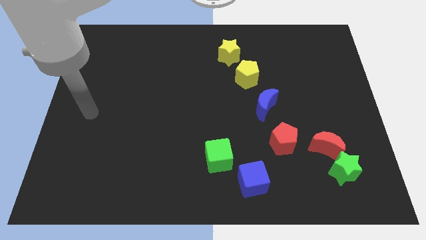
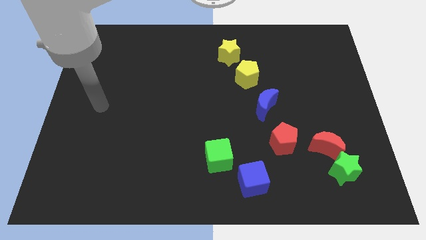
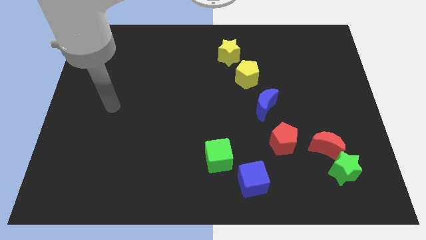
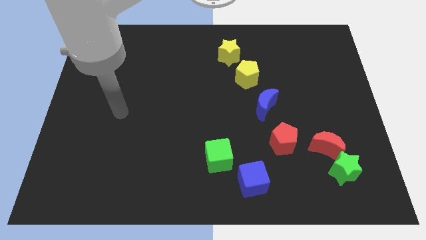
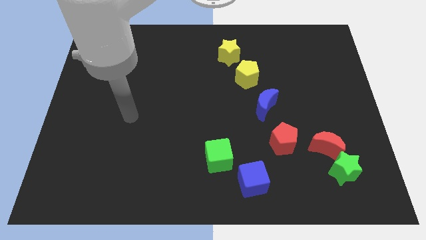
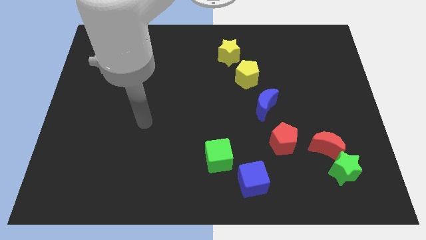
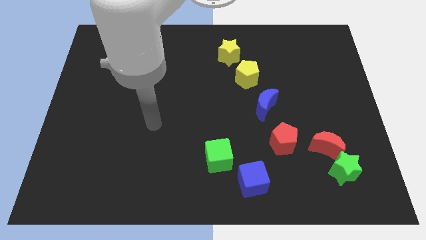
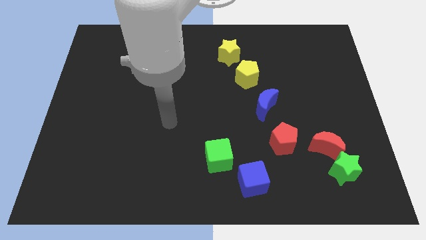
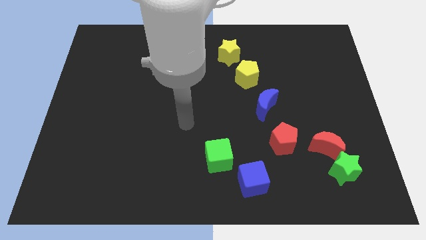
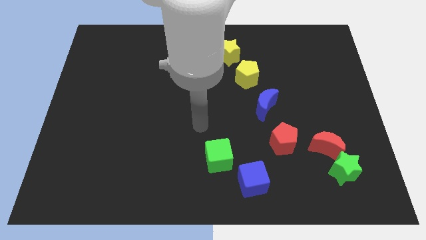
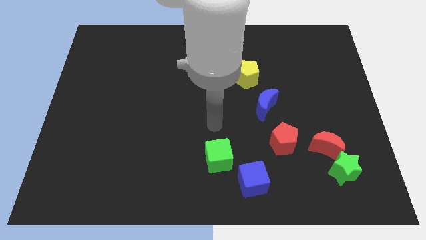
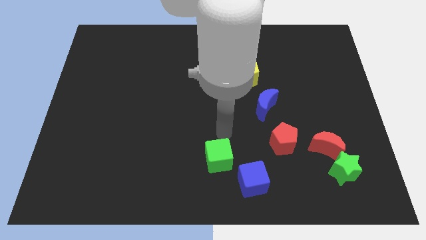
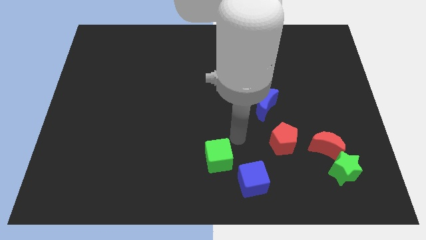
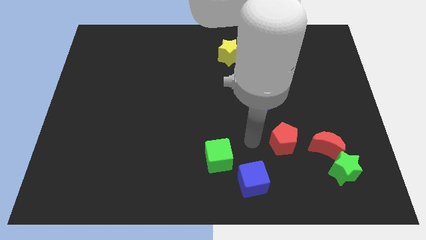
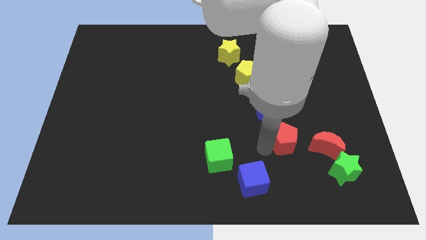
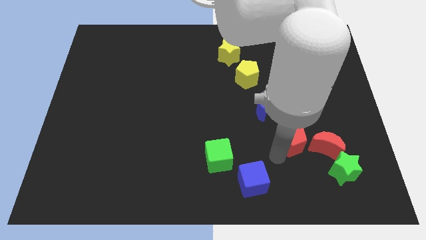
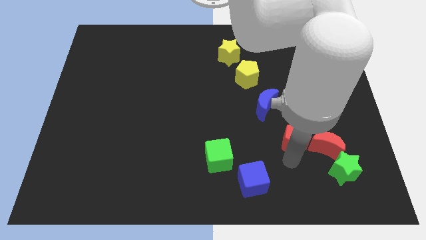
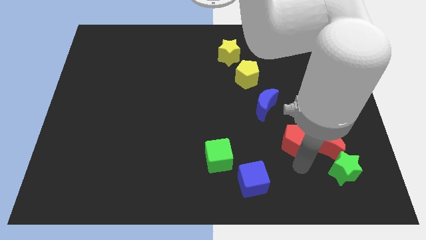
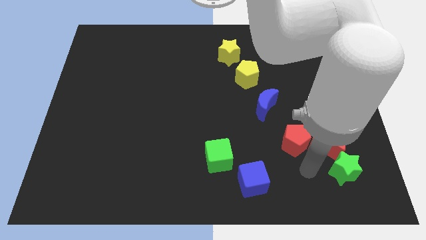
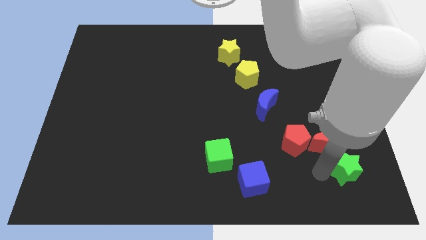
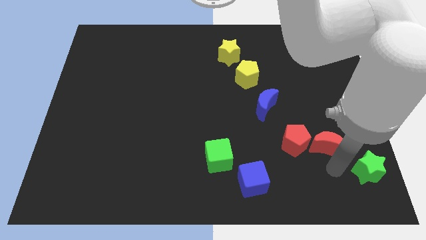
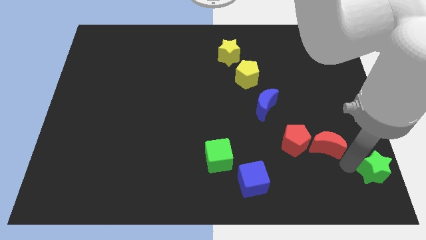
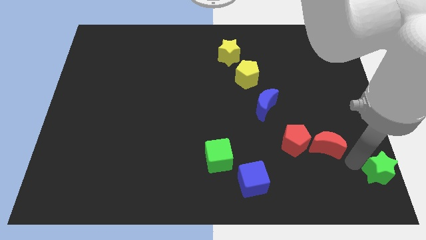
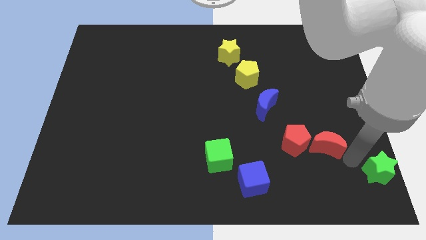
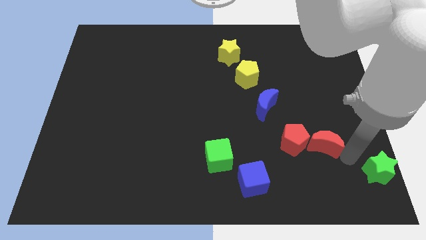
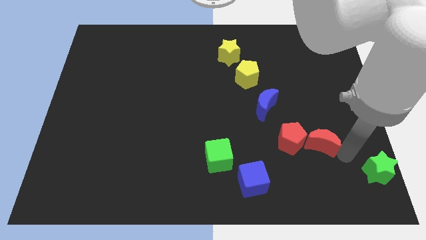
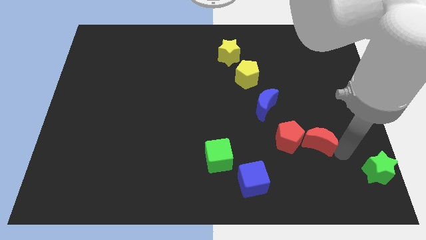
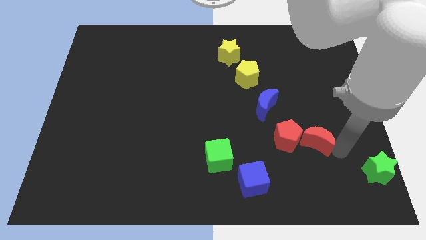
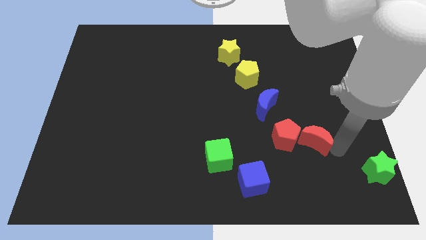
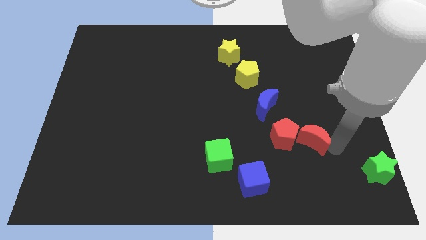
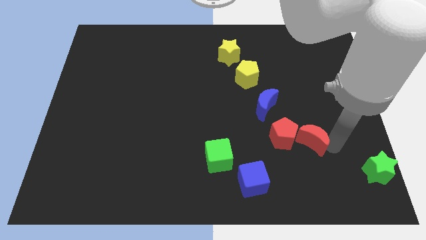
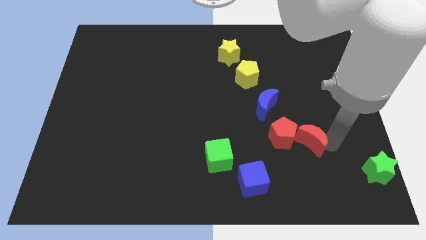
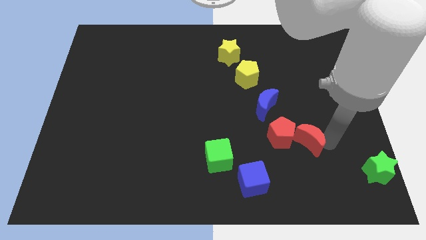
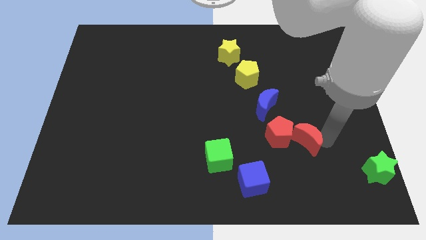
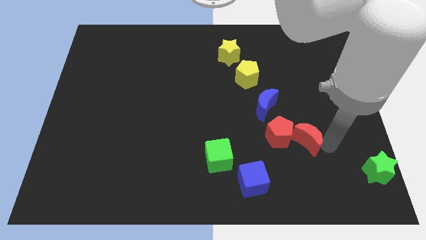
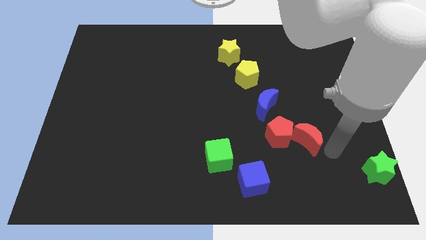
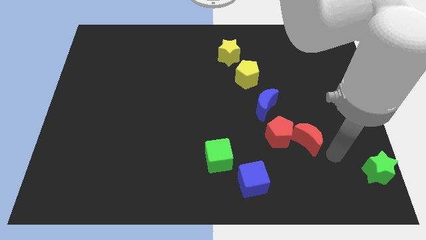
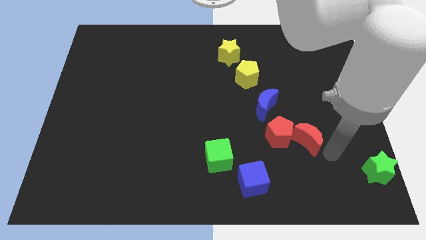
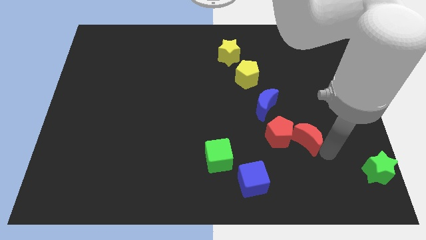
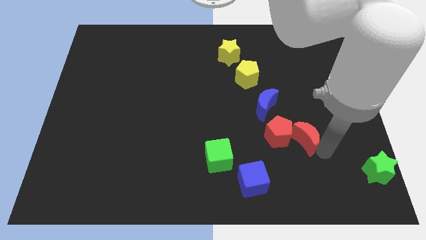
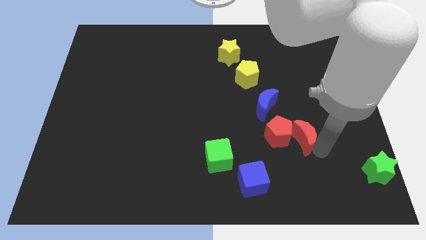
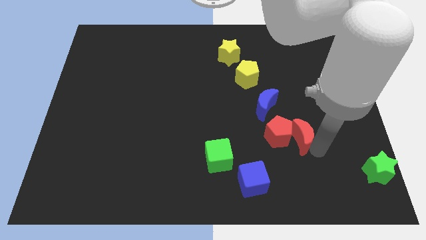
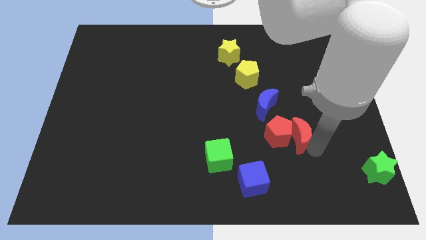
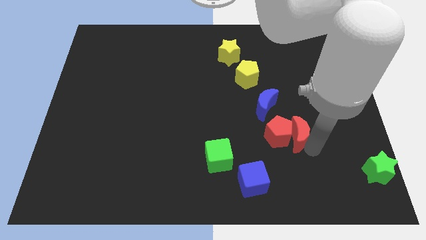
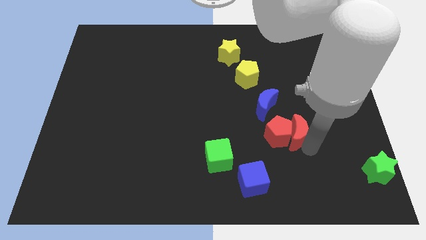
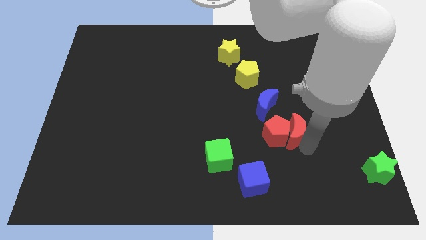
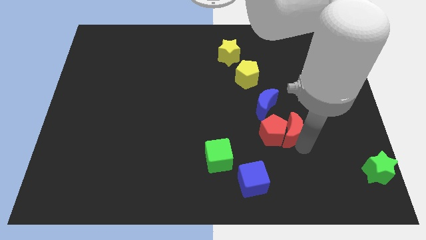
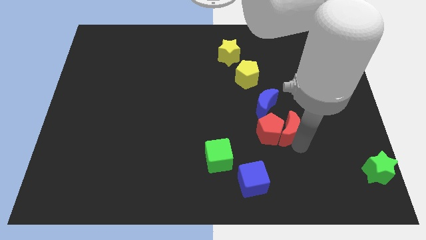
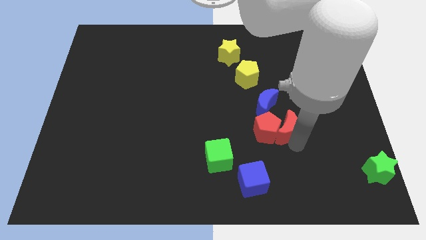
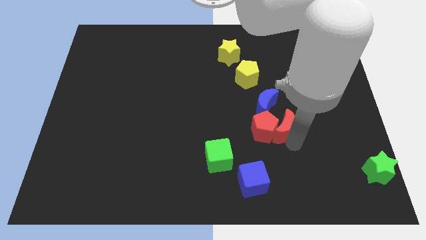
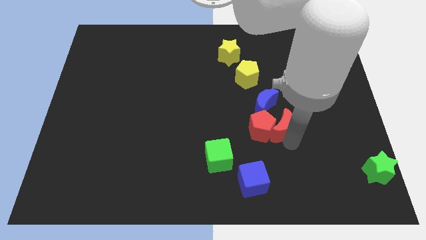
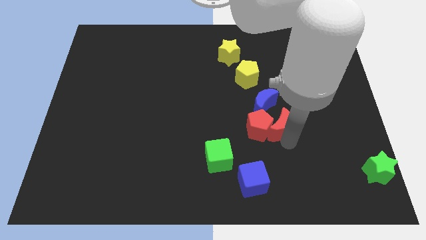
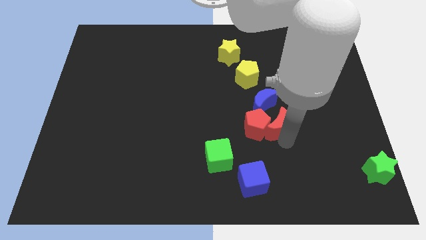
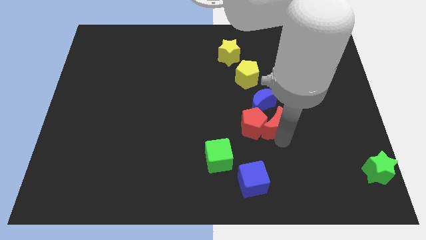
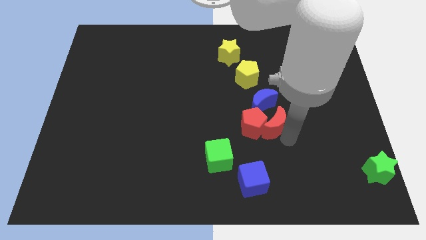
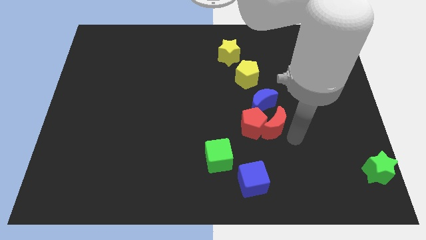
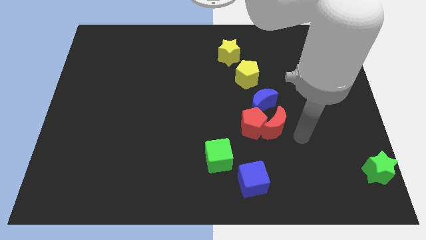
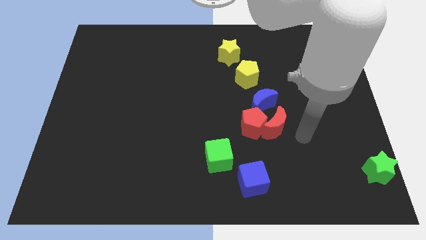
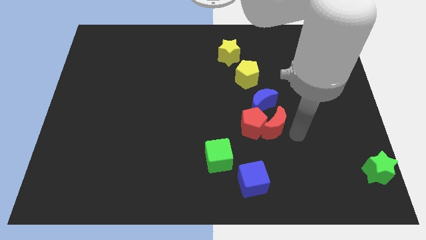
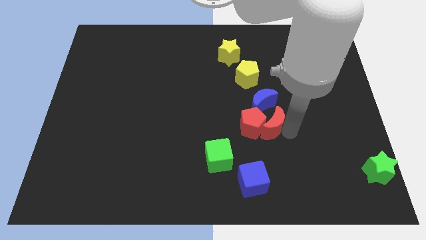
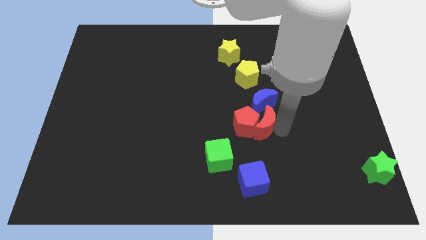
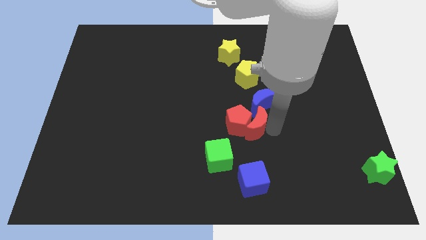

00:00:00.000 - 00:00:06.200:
push the red moon to the center
